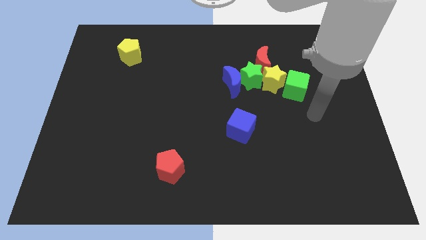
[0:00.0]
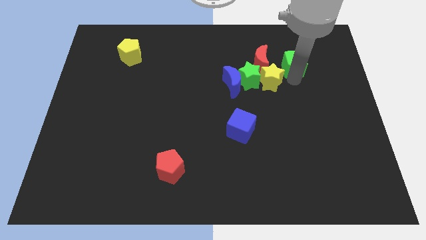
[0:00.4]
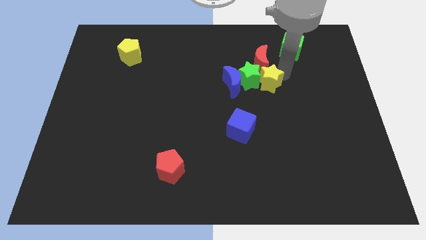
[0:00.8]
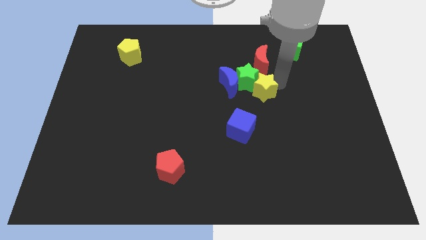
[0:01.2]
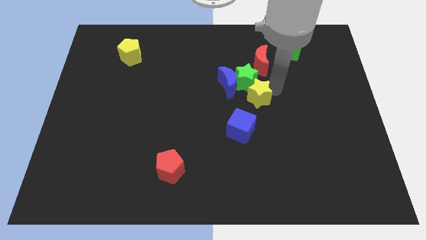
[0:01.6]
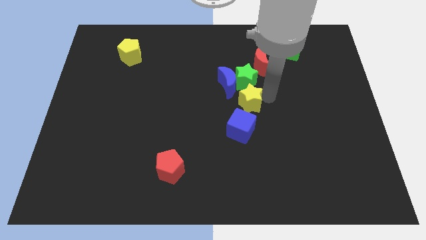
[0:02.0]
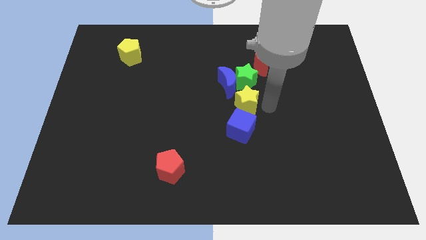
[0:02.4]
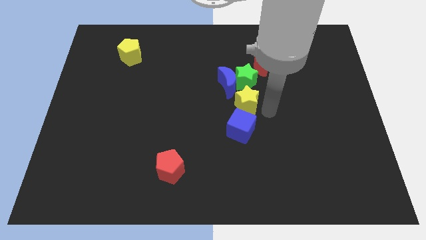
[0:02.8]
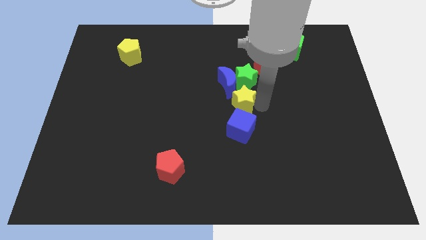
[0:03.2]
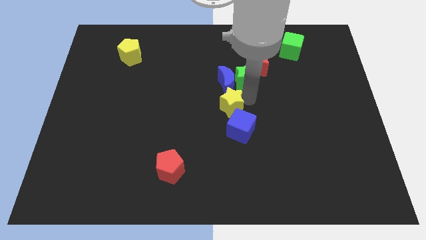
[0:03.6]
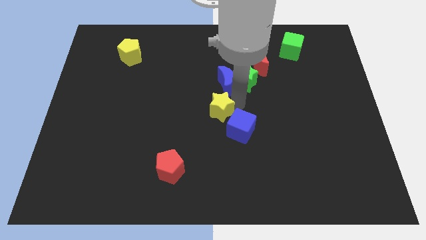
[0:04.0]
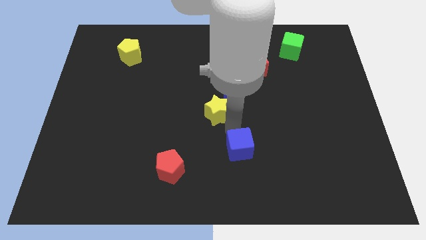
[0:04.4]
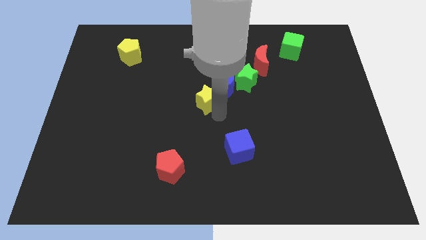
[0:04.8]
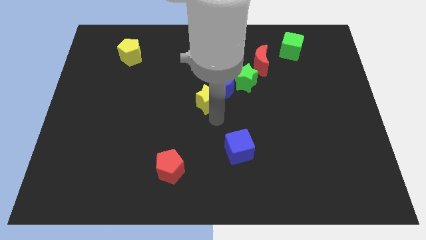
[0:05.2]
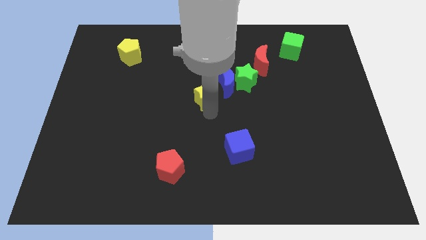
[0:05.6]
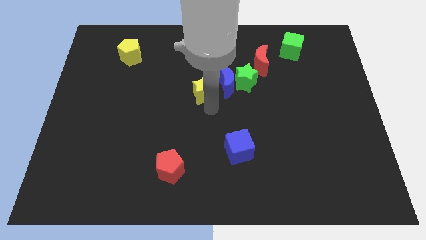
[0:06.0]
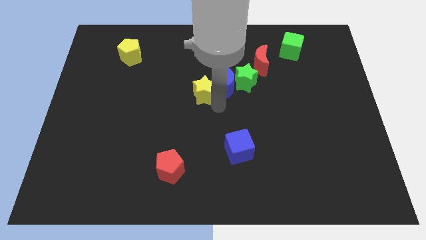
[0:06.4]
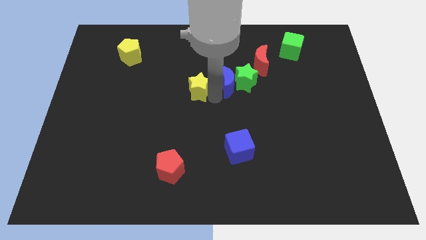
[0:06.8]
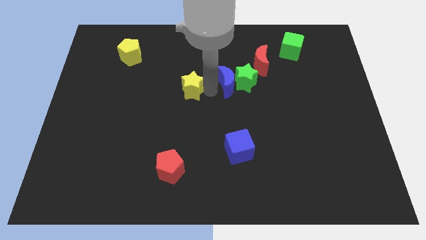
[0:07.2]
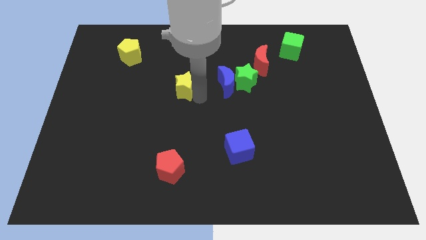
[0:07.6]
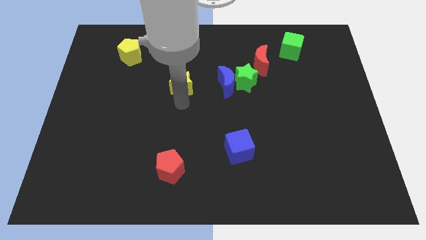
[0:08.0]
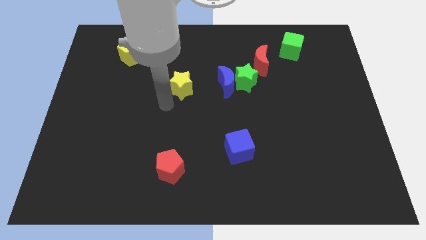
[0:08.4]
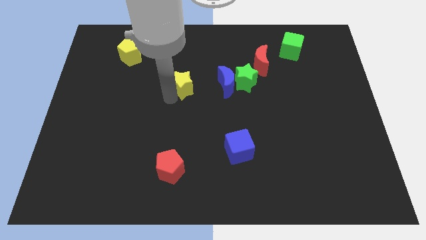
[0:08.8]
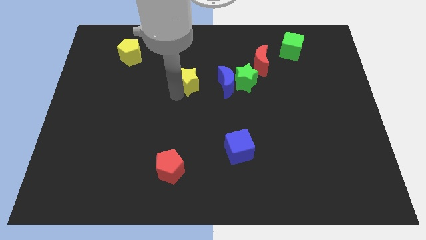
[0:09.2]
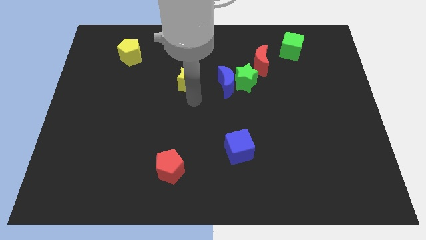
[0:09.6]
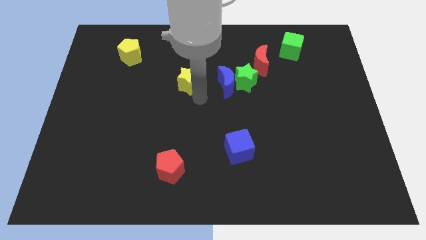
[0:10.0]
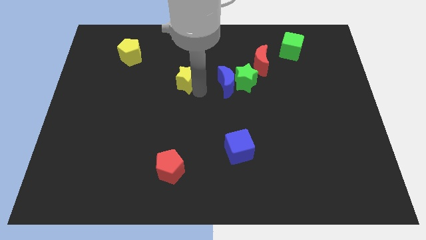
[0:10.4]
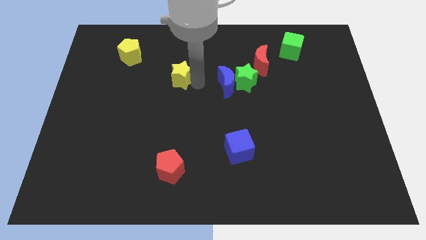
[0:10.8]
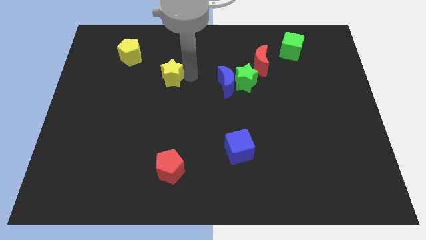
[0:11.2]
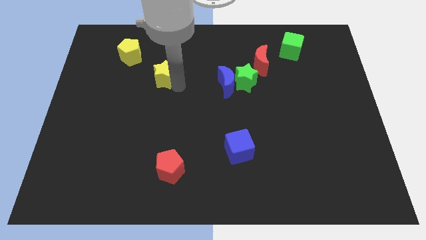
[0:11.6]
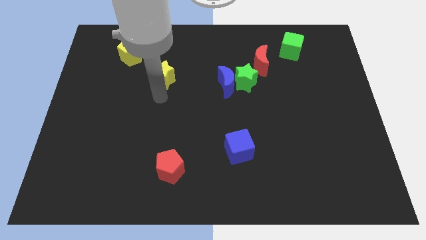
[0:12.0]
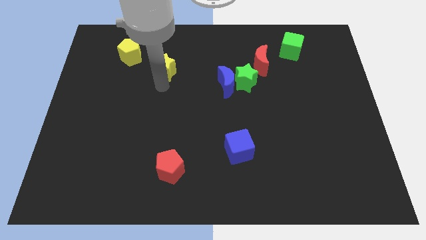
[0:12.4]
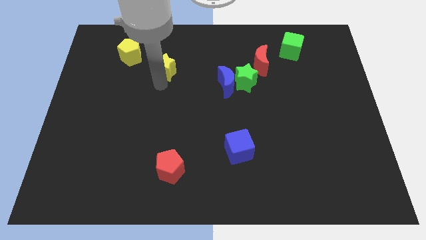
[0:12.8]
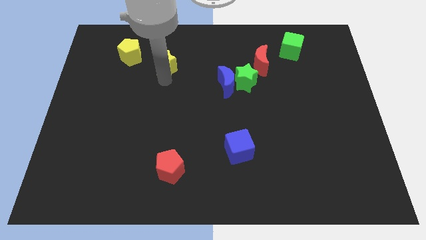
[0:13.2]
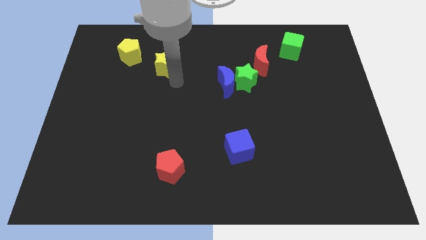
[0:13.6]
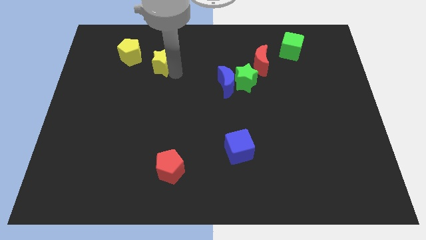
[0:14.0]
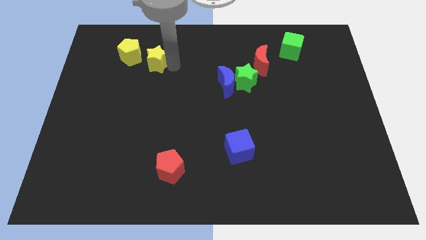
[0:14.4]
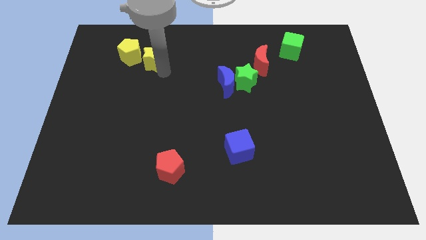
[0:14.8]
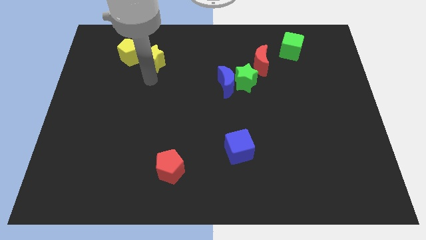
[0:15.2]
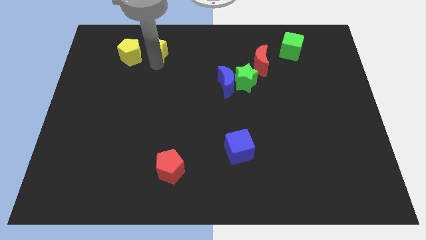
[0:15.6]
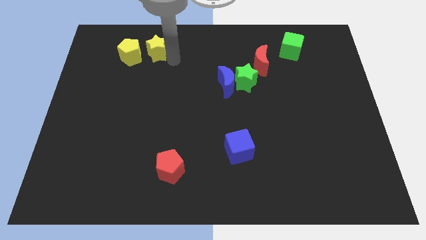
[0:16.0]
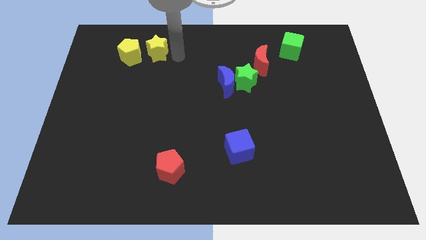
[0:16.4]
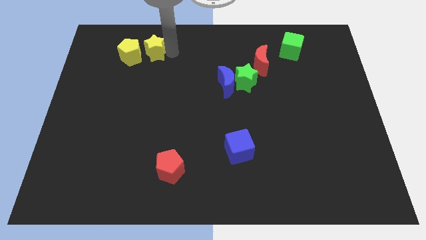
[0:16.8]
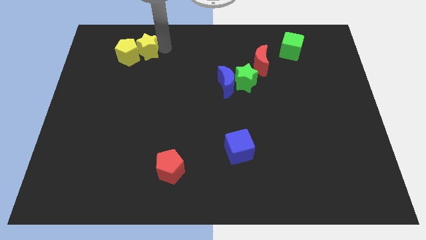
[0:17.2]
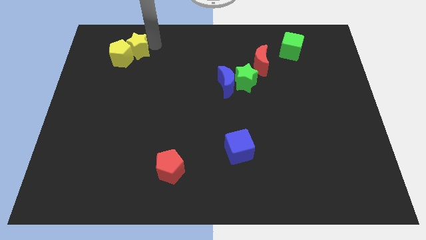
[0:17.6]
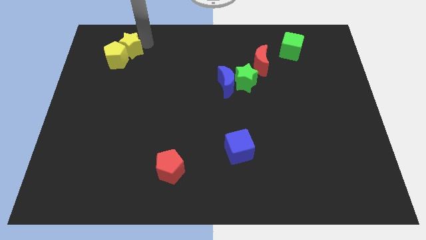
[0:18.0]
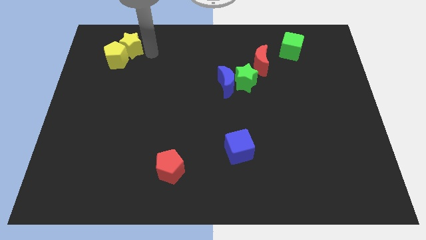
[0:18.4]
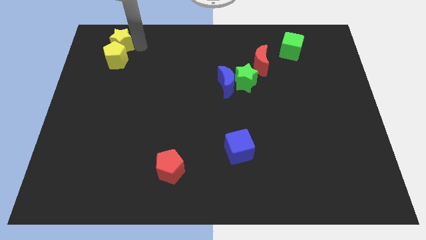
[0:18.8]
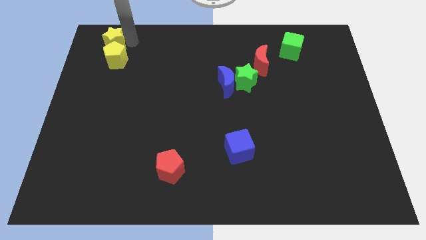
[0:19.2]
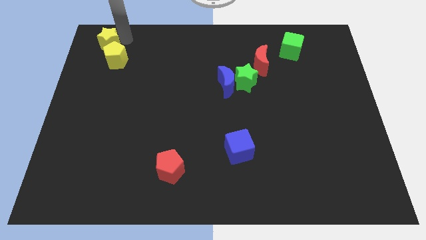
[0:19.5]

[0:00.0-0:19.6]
put the yellow star to the top left
